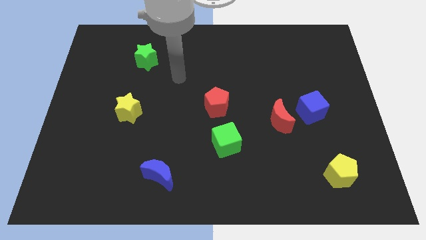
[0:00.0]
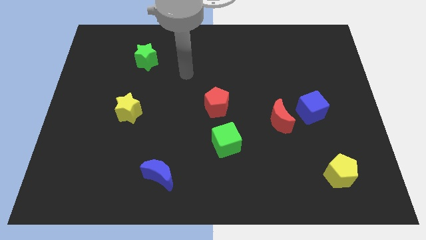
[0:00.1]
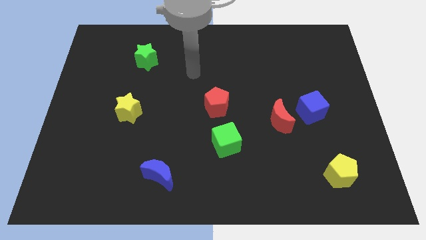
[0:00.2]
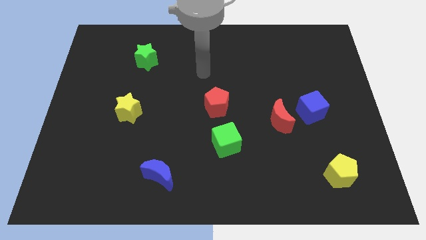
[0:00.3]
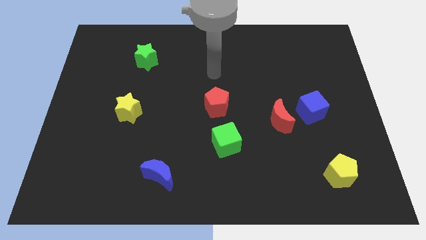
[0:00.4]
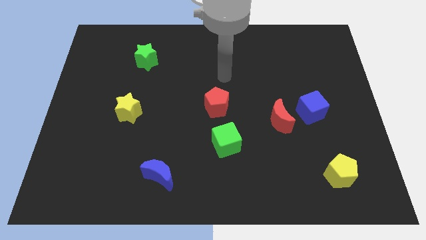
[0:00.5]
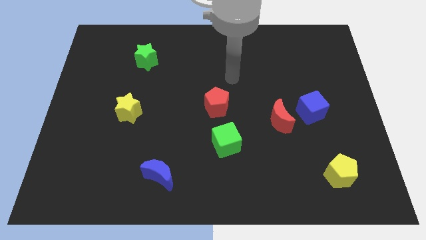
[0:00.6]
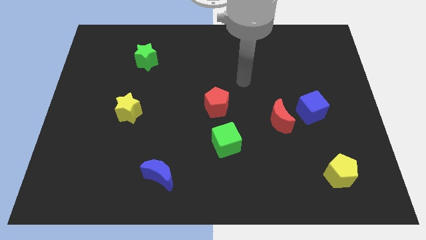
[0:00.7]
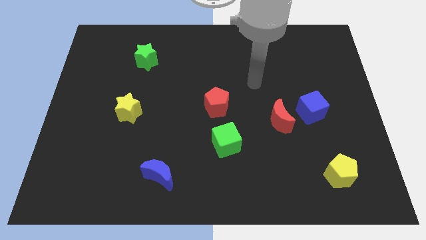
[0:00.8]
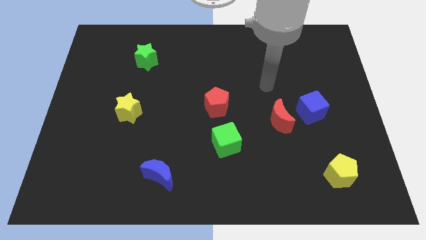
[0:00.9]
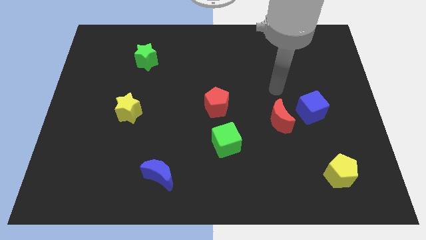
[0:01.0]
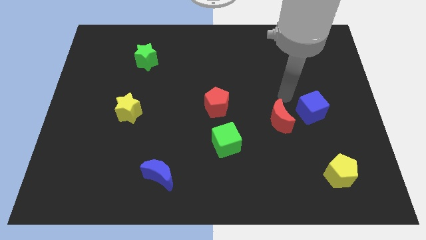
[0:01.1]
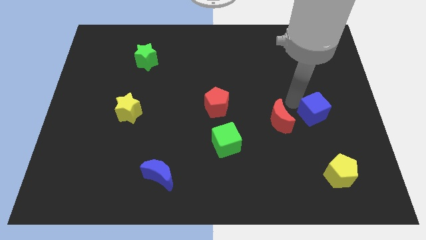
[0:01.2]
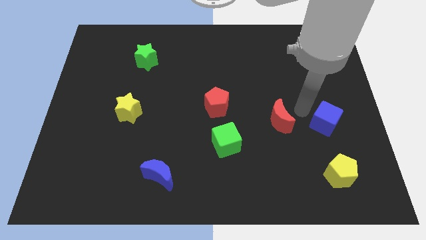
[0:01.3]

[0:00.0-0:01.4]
pull the red moon apart from the blue cube

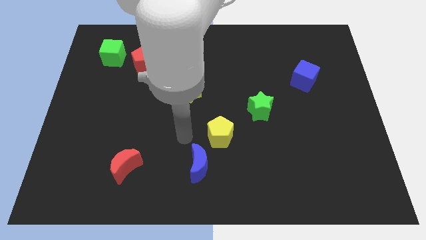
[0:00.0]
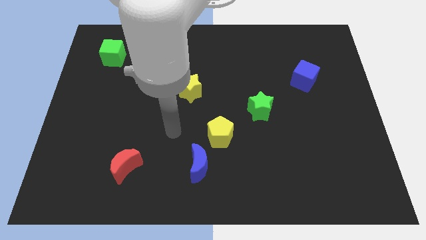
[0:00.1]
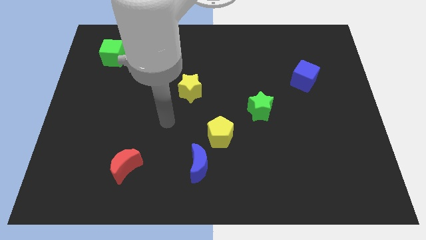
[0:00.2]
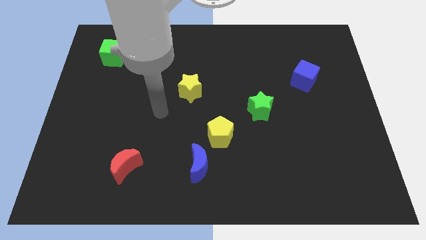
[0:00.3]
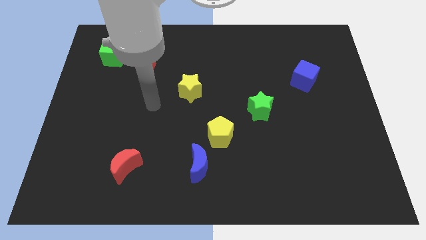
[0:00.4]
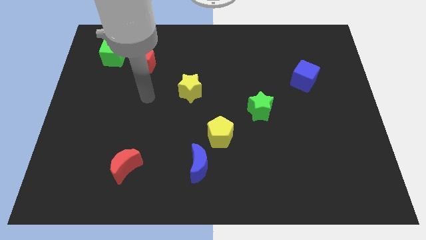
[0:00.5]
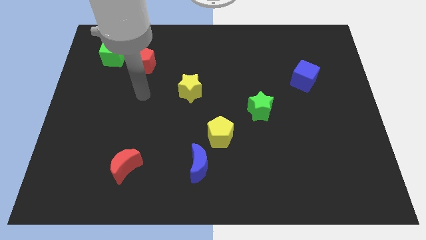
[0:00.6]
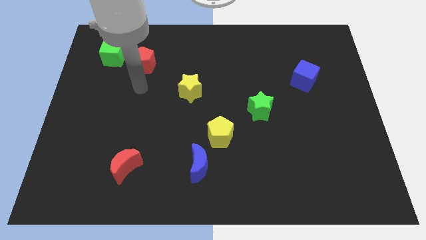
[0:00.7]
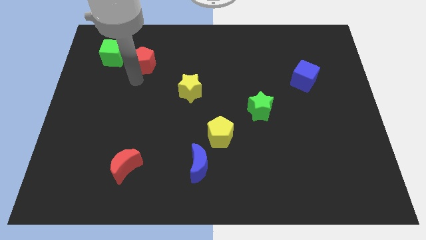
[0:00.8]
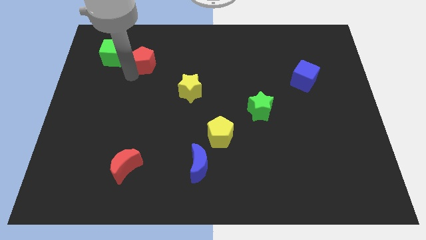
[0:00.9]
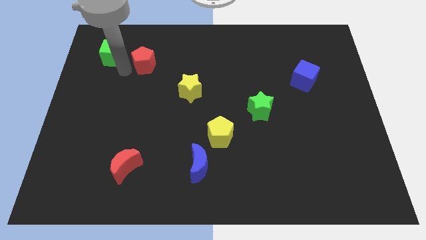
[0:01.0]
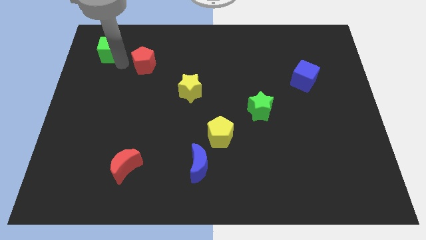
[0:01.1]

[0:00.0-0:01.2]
move the red pentagon away from the green cube

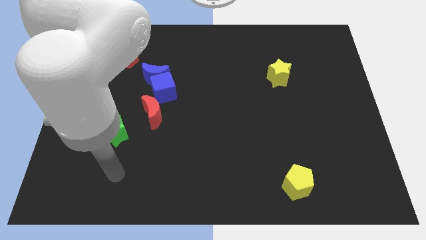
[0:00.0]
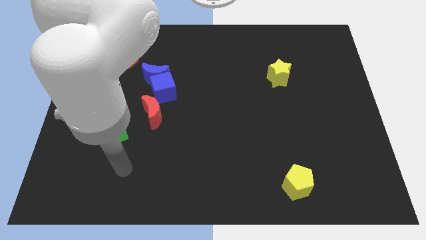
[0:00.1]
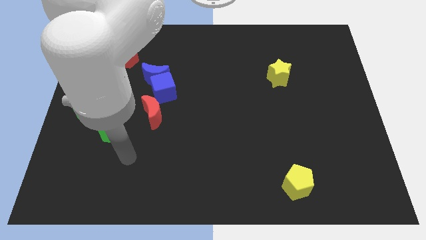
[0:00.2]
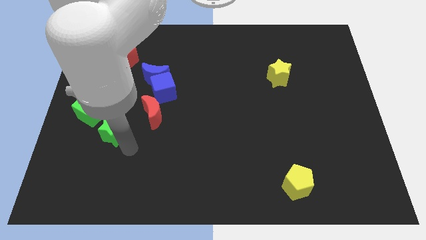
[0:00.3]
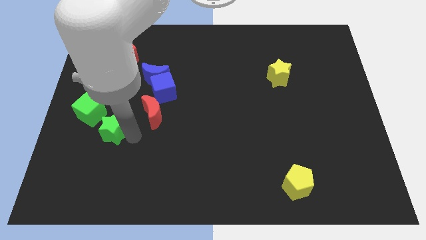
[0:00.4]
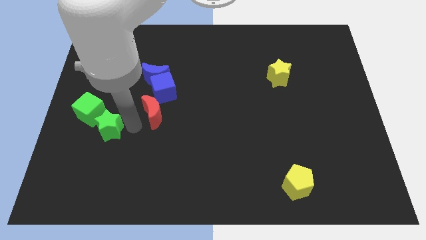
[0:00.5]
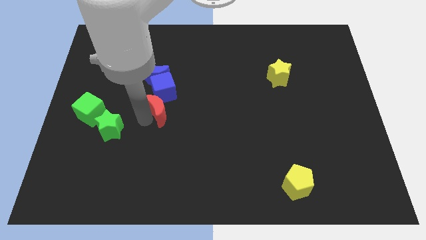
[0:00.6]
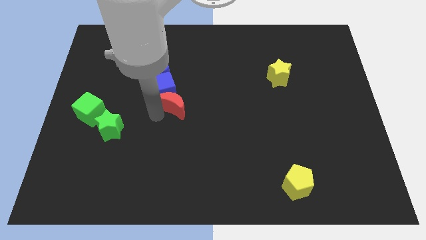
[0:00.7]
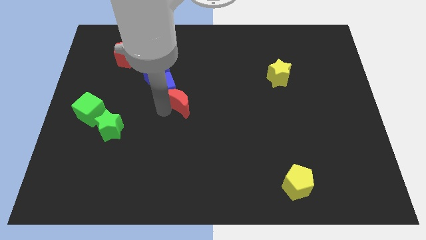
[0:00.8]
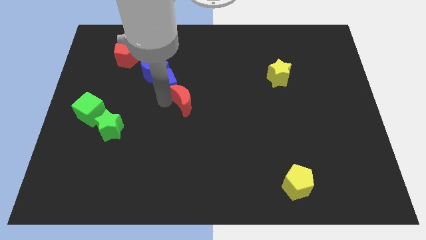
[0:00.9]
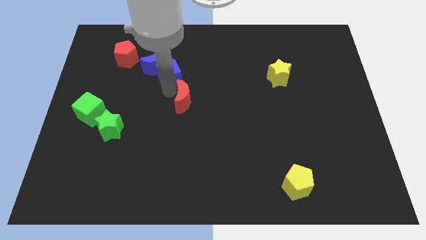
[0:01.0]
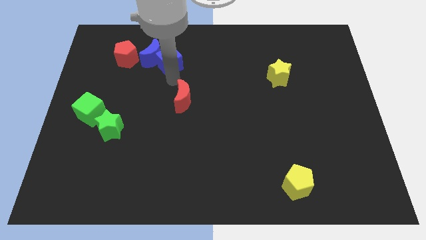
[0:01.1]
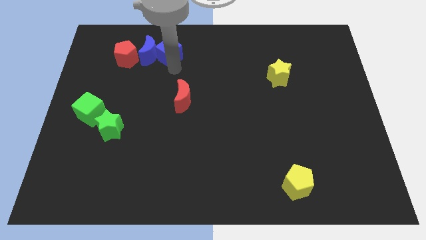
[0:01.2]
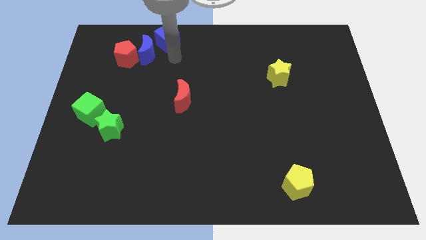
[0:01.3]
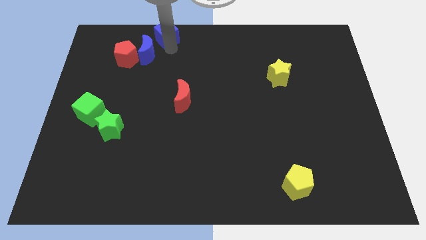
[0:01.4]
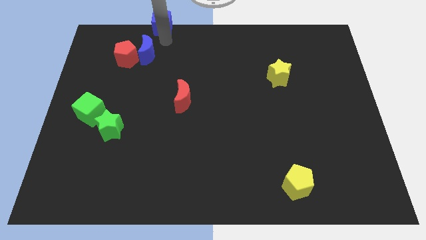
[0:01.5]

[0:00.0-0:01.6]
pull the blue moon apart from the blue cube

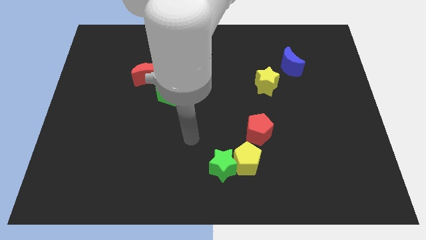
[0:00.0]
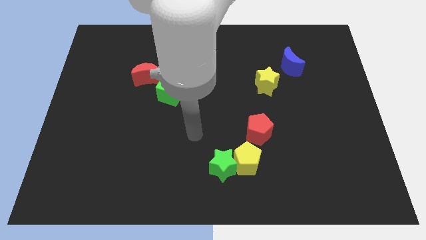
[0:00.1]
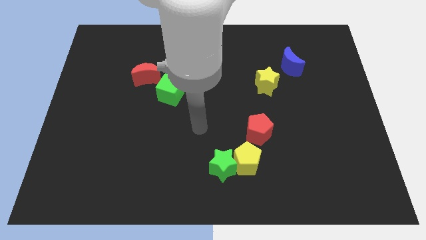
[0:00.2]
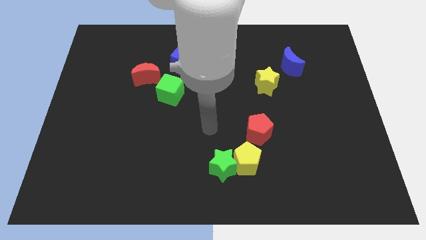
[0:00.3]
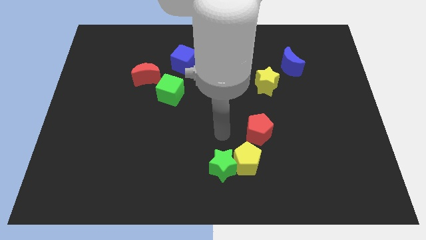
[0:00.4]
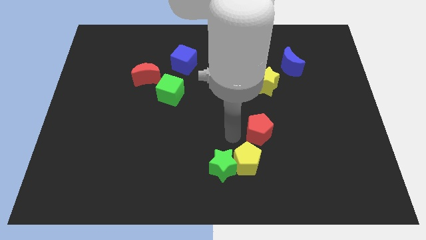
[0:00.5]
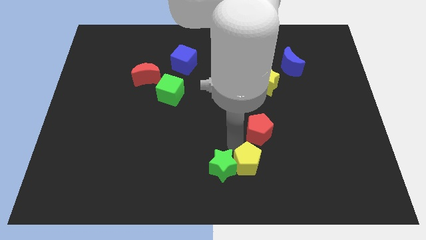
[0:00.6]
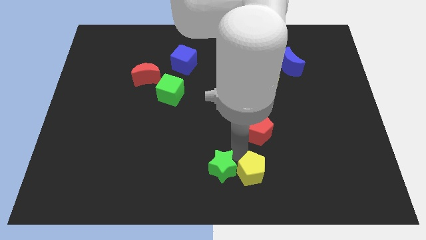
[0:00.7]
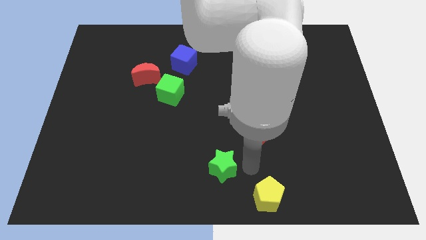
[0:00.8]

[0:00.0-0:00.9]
pull the green star apart from the yellow pentagon

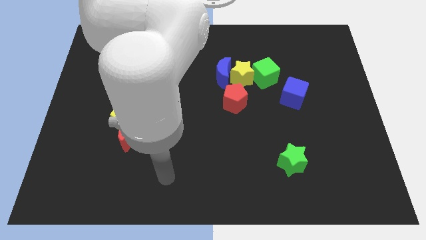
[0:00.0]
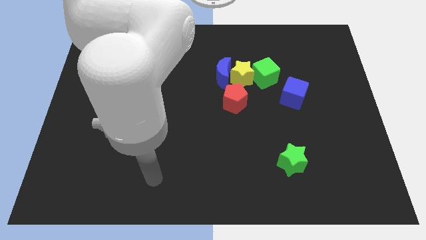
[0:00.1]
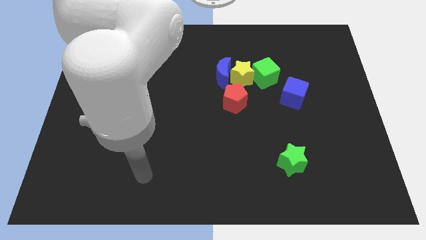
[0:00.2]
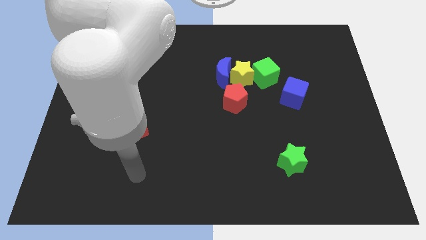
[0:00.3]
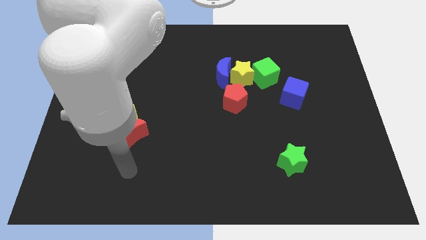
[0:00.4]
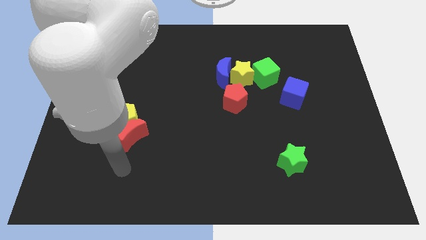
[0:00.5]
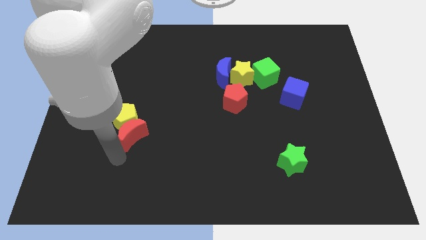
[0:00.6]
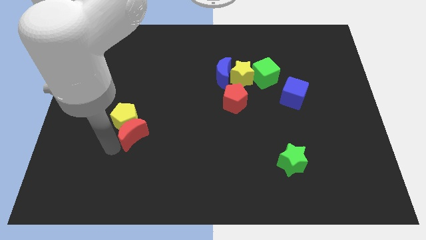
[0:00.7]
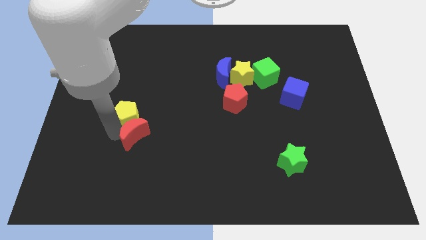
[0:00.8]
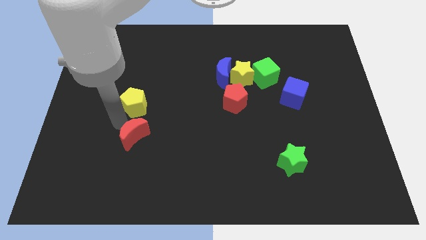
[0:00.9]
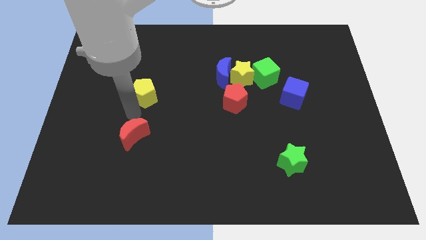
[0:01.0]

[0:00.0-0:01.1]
separate the red moon from the yellow pentagon

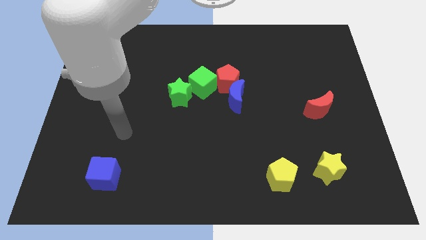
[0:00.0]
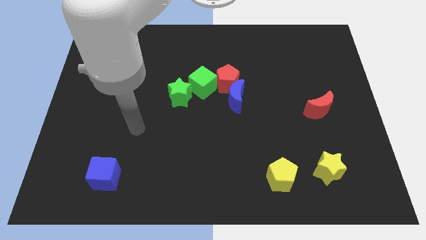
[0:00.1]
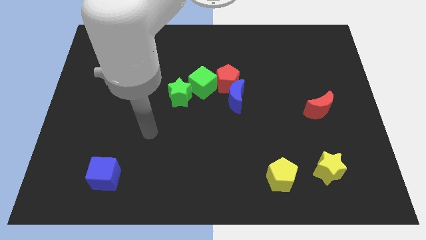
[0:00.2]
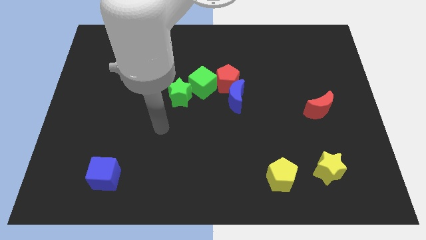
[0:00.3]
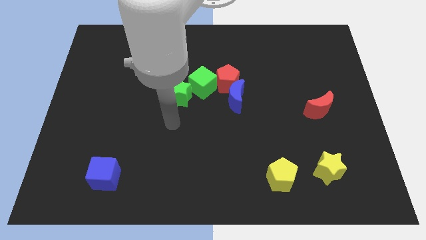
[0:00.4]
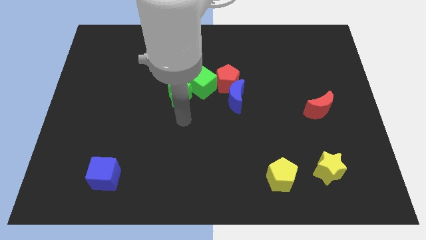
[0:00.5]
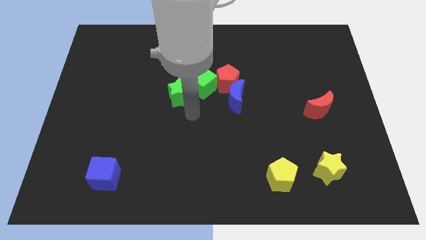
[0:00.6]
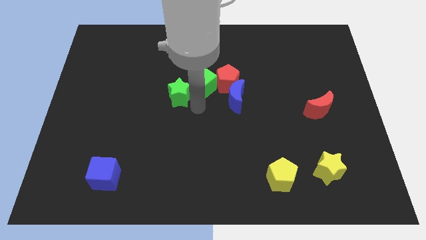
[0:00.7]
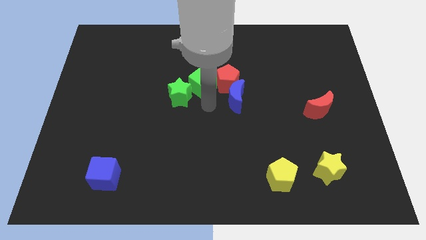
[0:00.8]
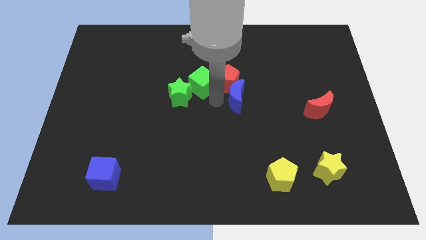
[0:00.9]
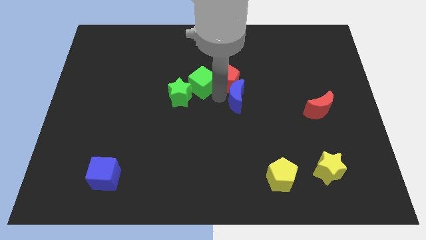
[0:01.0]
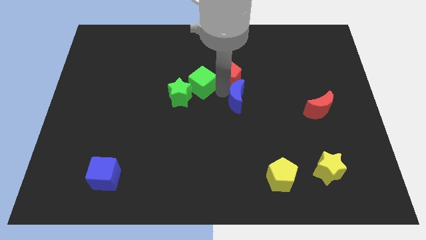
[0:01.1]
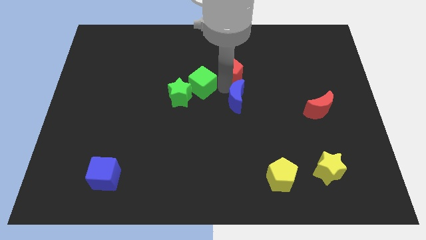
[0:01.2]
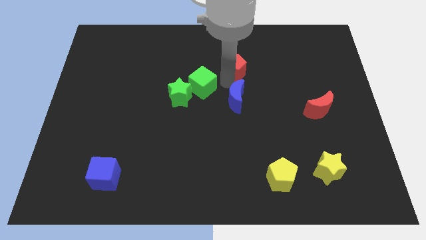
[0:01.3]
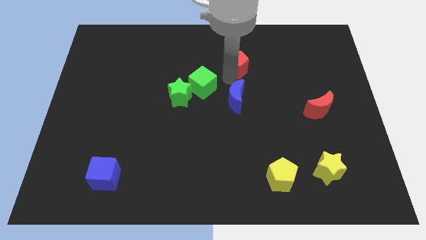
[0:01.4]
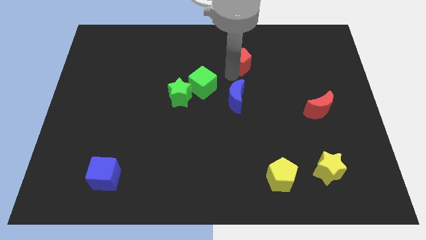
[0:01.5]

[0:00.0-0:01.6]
move the red pentagon away from the blue moon and green cube

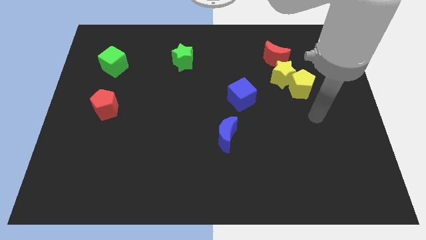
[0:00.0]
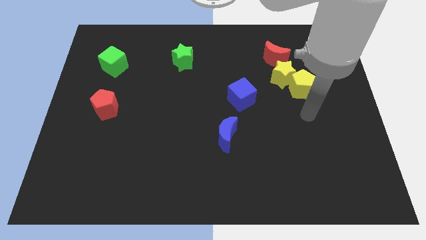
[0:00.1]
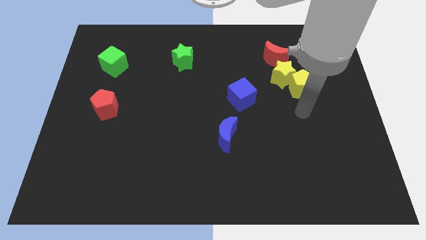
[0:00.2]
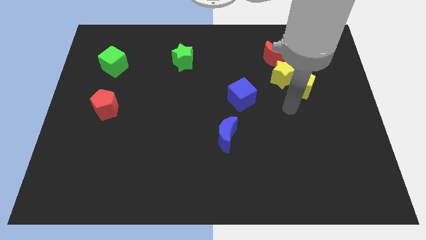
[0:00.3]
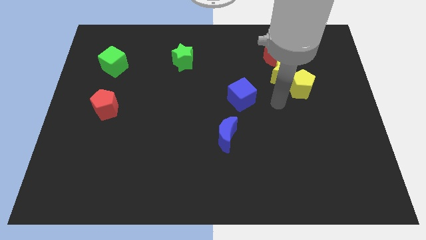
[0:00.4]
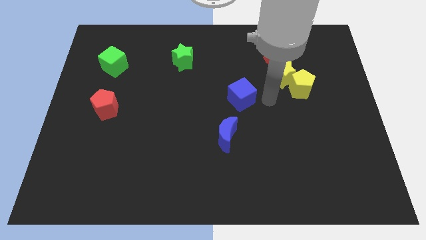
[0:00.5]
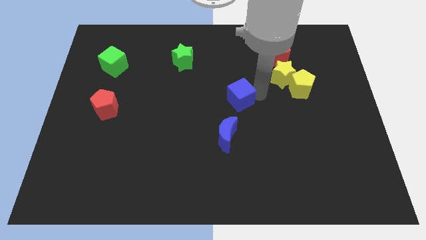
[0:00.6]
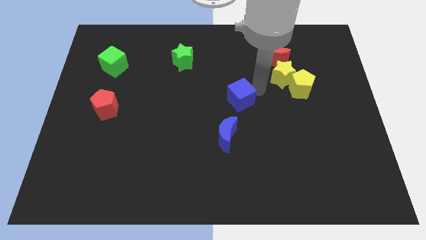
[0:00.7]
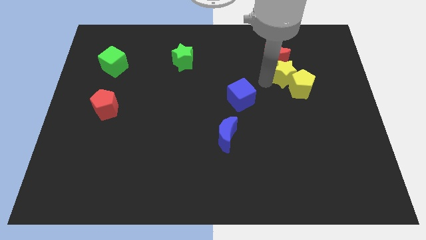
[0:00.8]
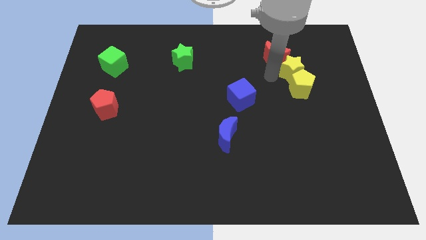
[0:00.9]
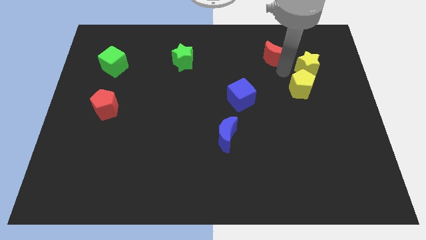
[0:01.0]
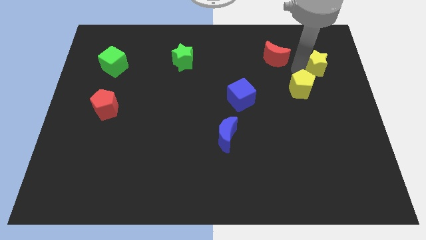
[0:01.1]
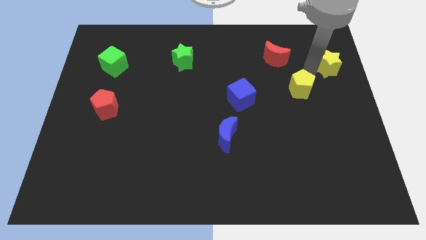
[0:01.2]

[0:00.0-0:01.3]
move the yellow pentagon away from the yellow star
